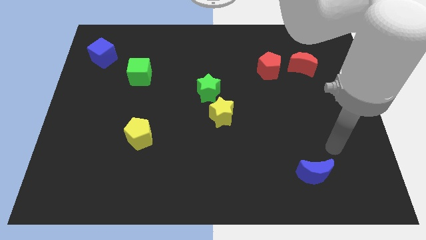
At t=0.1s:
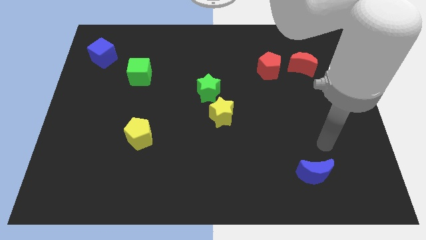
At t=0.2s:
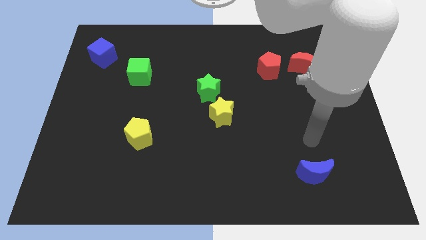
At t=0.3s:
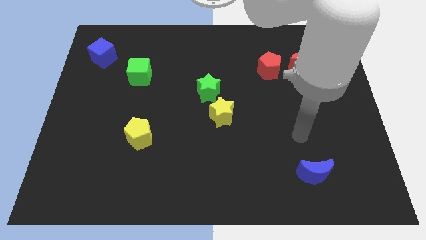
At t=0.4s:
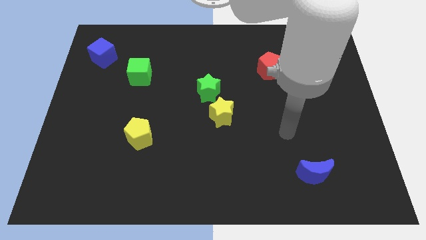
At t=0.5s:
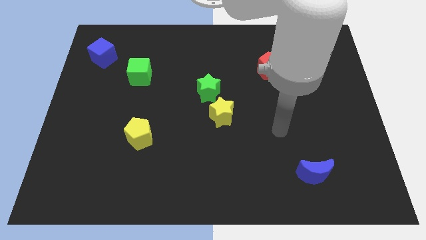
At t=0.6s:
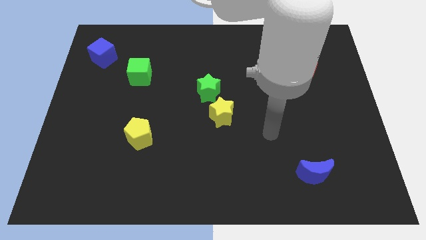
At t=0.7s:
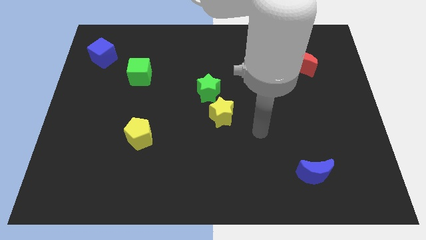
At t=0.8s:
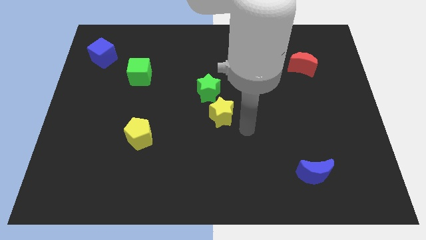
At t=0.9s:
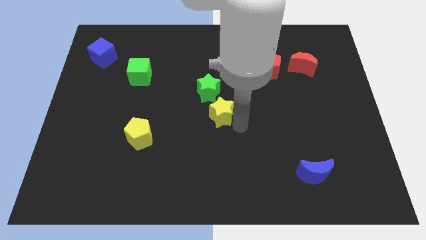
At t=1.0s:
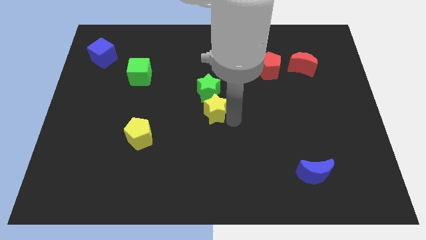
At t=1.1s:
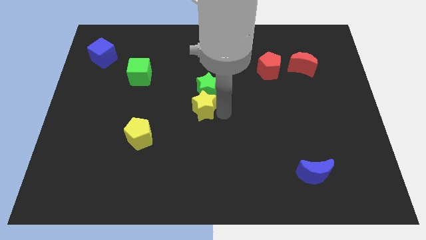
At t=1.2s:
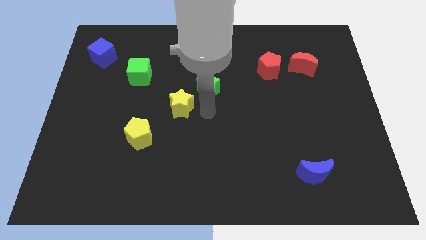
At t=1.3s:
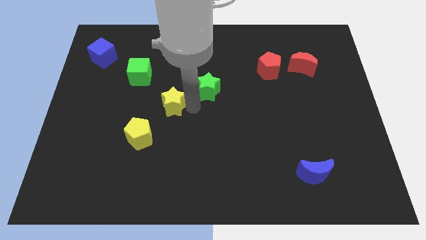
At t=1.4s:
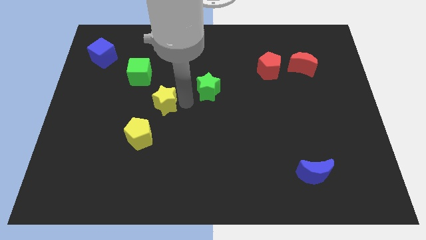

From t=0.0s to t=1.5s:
move the green star away from the yellow star

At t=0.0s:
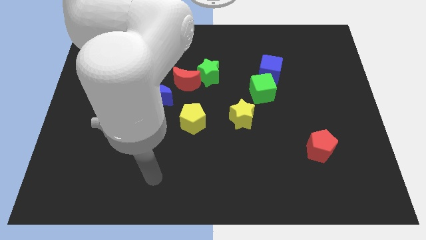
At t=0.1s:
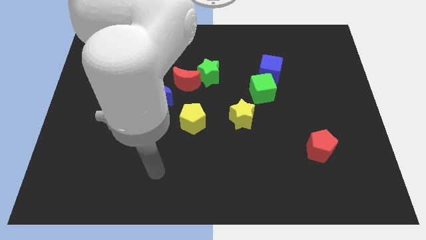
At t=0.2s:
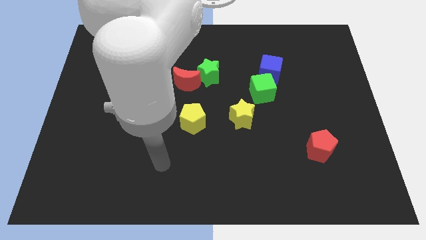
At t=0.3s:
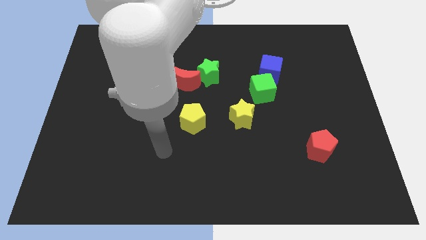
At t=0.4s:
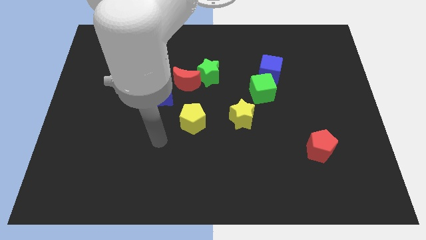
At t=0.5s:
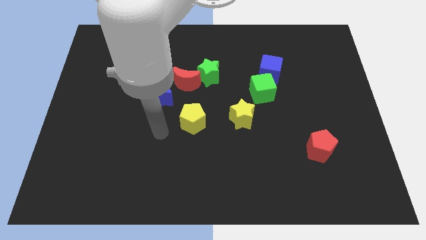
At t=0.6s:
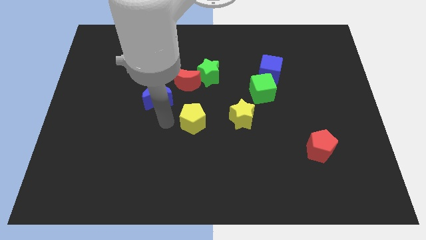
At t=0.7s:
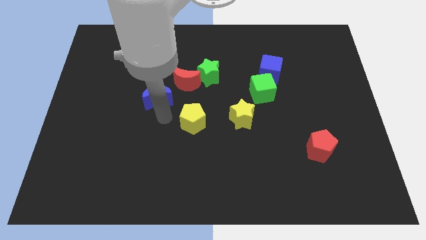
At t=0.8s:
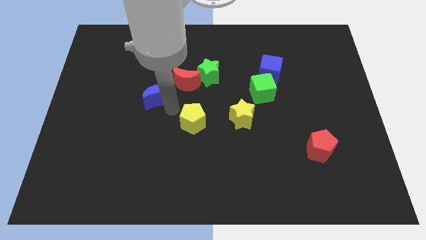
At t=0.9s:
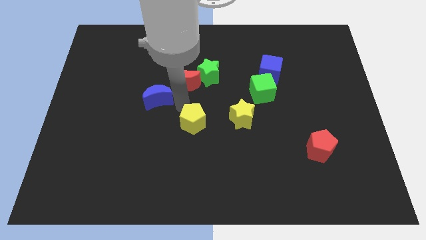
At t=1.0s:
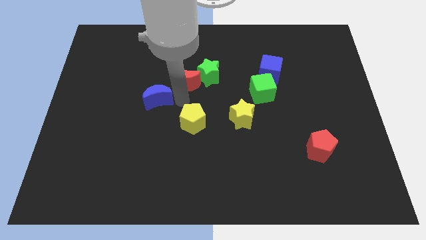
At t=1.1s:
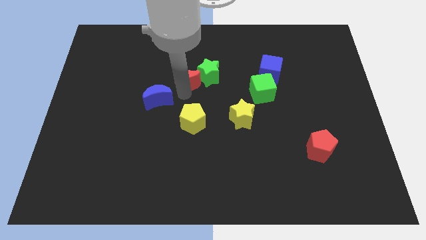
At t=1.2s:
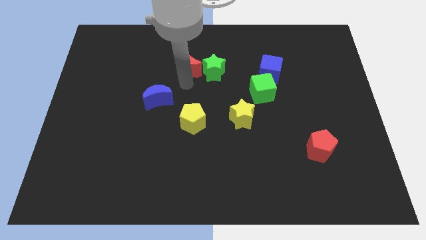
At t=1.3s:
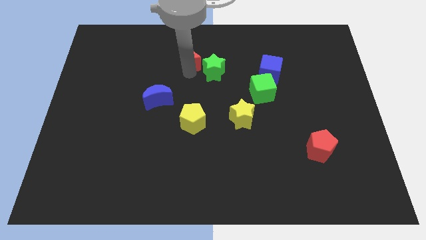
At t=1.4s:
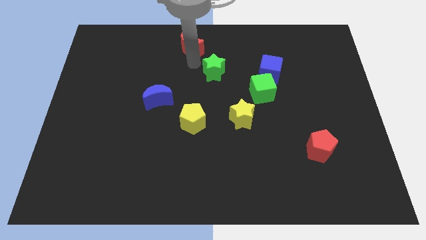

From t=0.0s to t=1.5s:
move the green star away from the red moon

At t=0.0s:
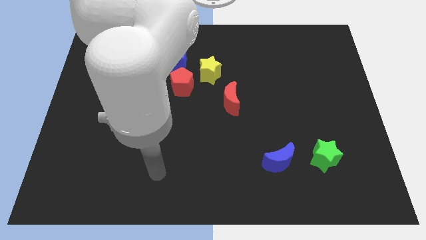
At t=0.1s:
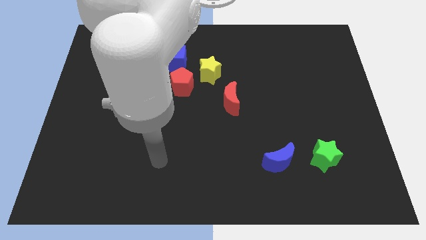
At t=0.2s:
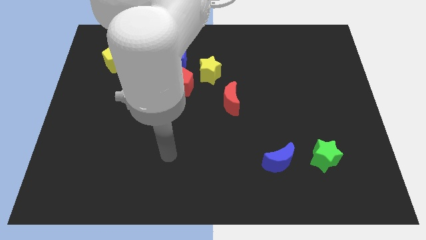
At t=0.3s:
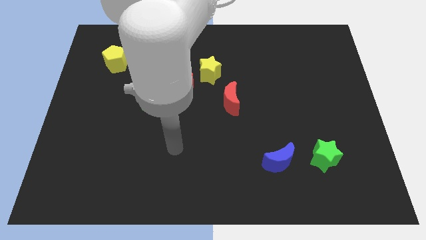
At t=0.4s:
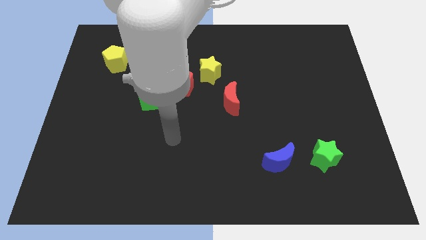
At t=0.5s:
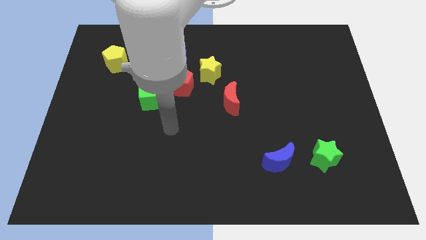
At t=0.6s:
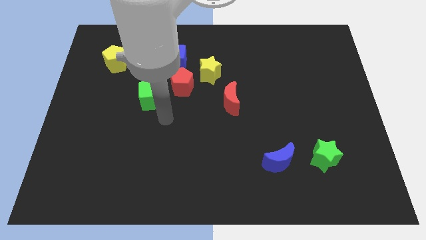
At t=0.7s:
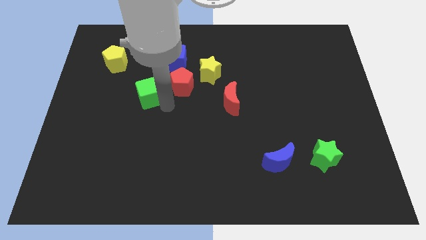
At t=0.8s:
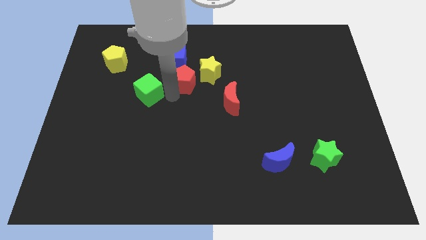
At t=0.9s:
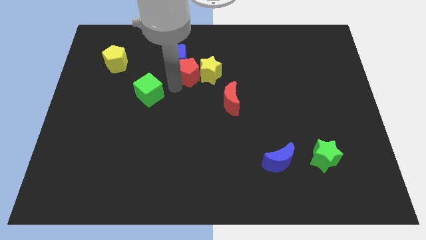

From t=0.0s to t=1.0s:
pull the green cube apart from the red pentagon

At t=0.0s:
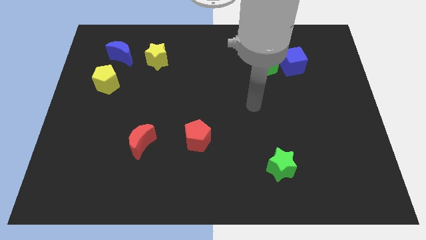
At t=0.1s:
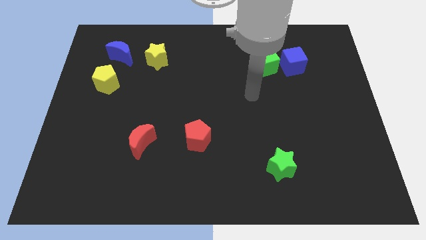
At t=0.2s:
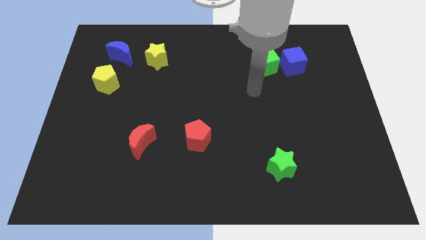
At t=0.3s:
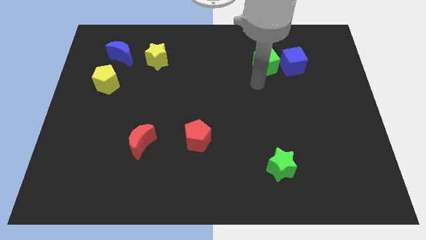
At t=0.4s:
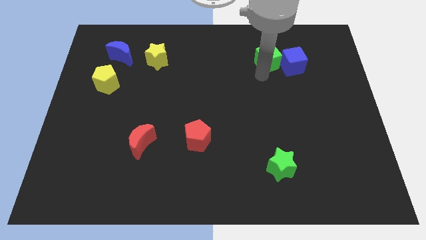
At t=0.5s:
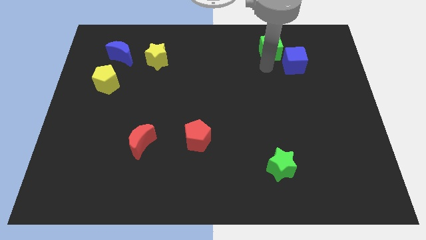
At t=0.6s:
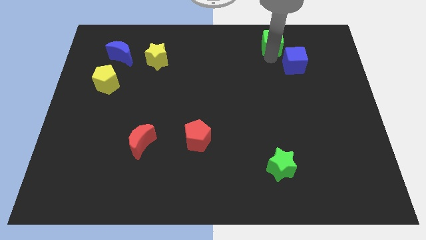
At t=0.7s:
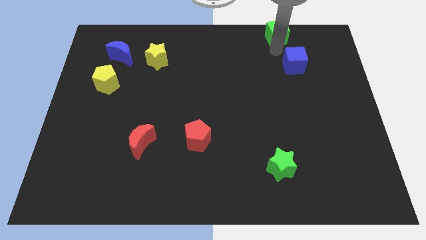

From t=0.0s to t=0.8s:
separate the blue cube from the green cube

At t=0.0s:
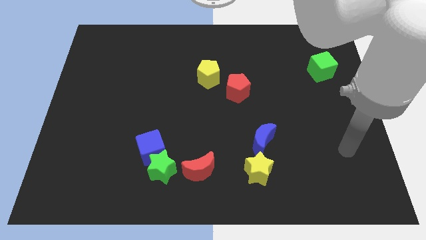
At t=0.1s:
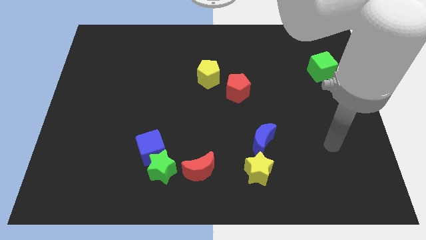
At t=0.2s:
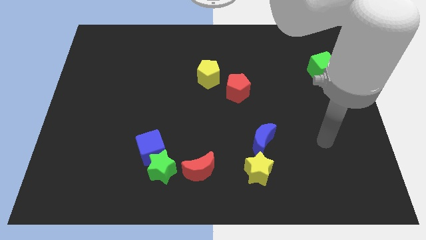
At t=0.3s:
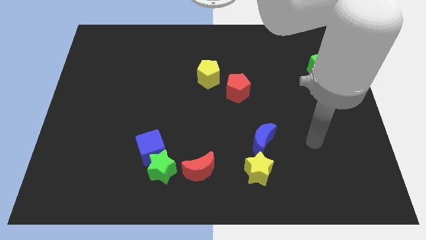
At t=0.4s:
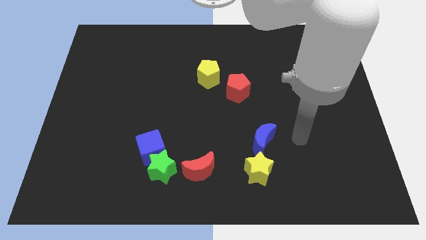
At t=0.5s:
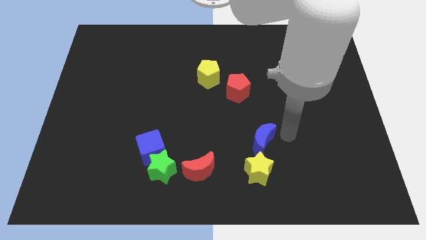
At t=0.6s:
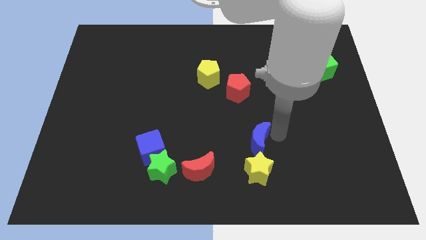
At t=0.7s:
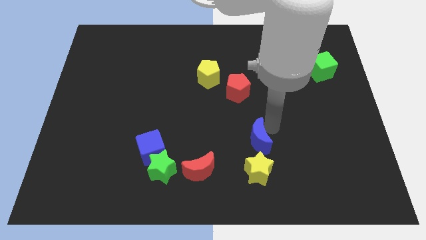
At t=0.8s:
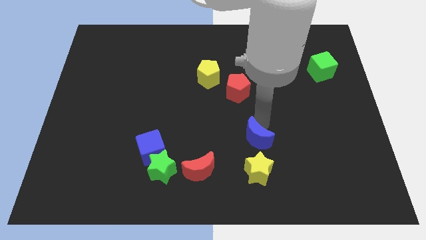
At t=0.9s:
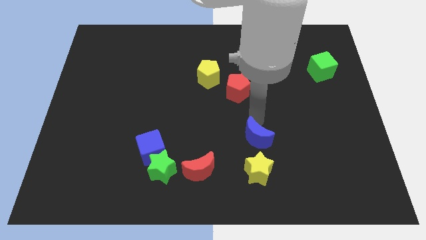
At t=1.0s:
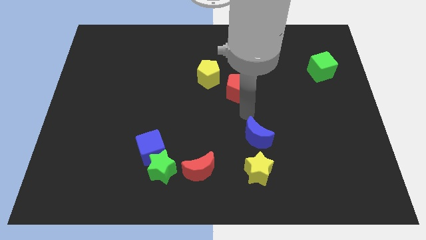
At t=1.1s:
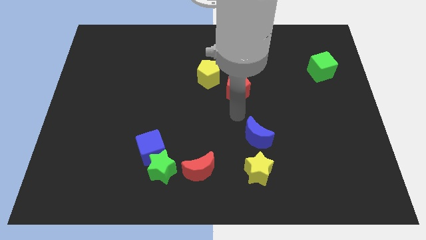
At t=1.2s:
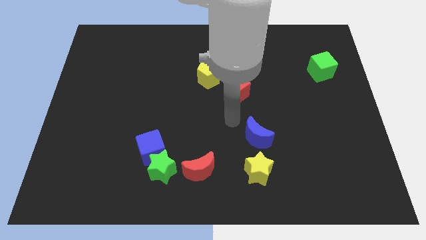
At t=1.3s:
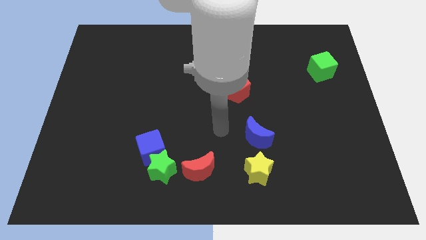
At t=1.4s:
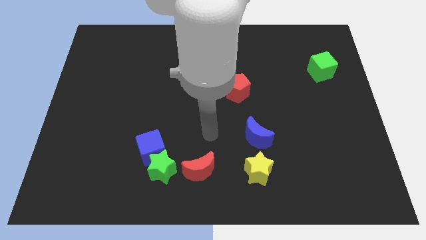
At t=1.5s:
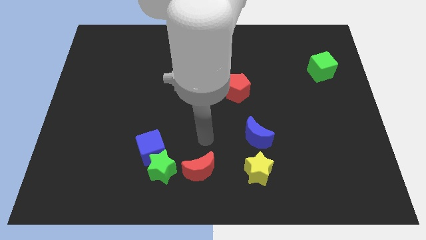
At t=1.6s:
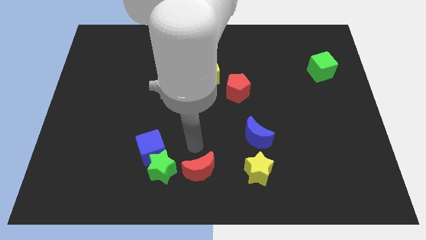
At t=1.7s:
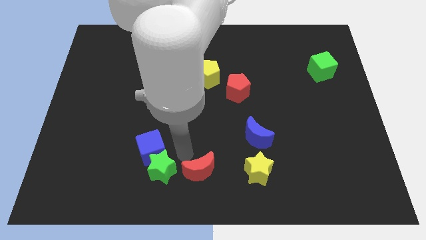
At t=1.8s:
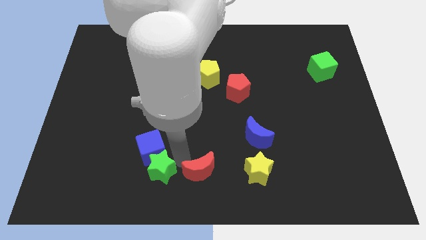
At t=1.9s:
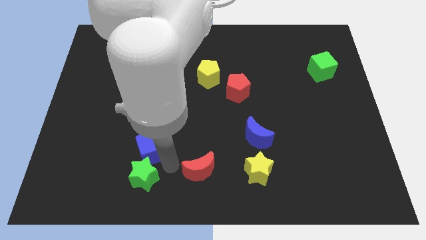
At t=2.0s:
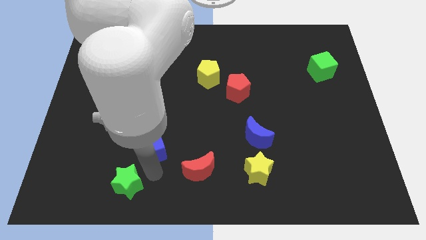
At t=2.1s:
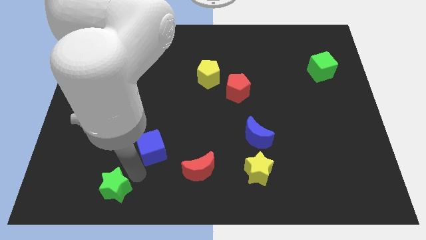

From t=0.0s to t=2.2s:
pull the blue cube apart from the green star

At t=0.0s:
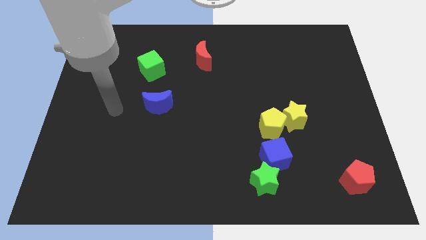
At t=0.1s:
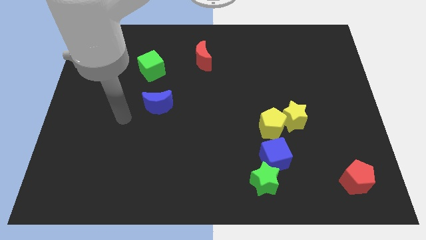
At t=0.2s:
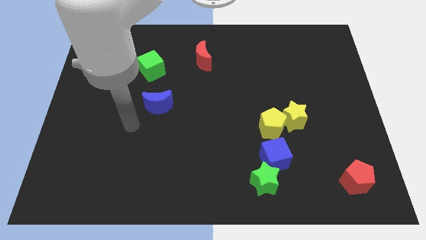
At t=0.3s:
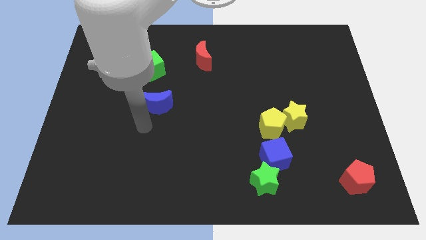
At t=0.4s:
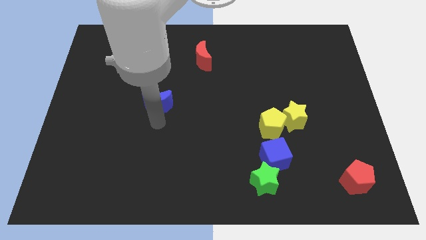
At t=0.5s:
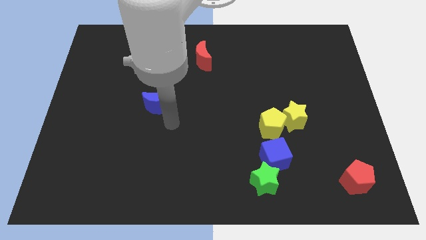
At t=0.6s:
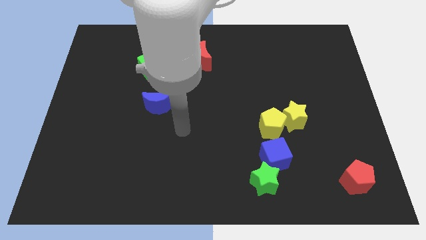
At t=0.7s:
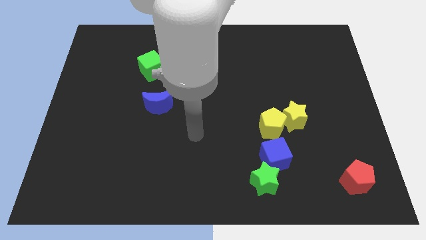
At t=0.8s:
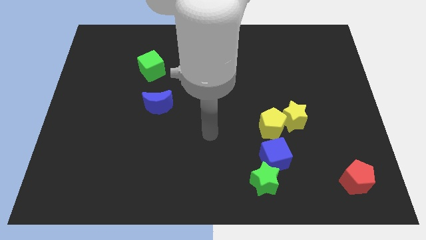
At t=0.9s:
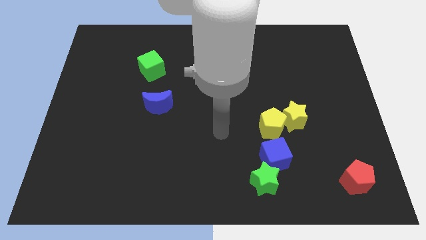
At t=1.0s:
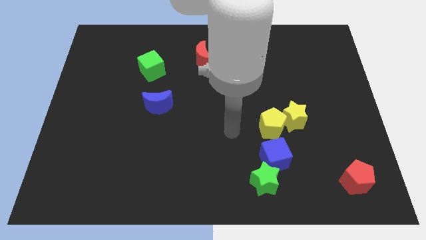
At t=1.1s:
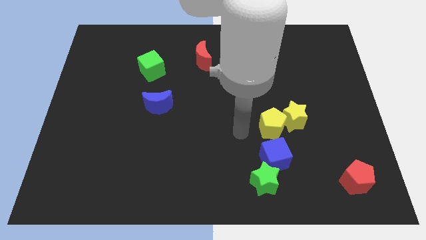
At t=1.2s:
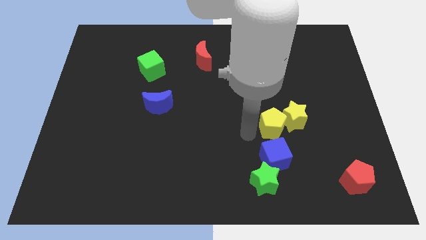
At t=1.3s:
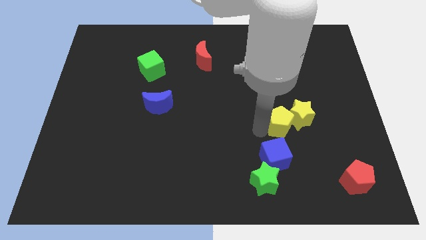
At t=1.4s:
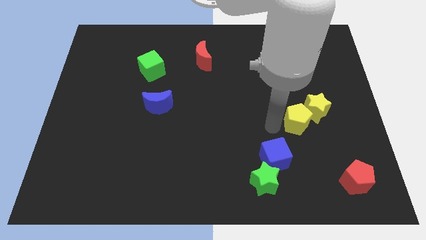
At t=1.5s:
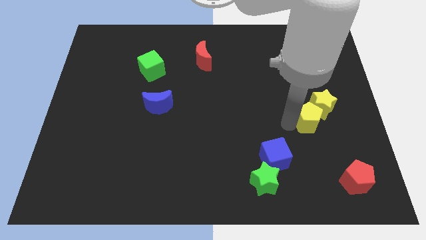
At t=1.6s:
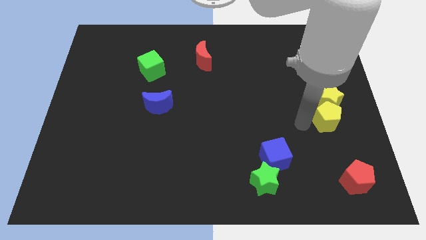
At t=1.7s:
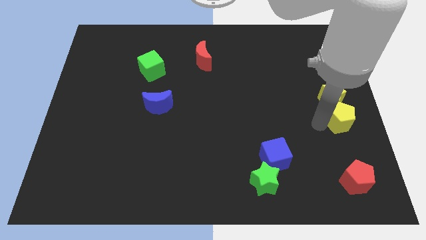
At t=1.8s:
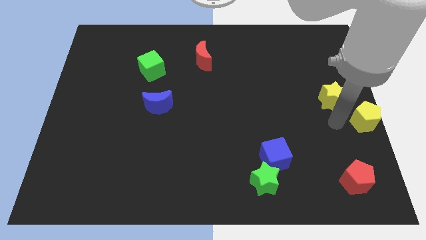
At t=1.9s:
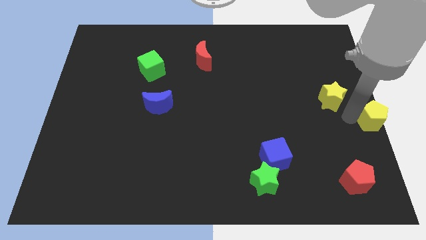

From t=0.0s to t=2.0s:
separate the yellow star from the yellow pentagon
